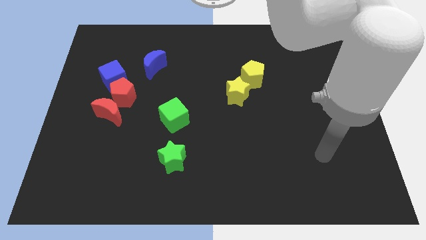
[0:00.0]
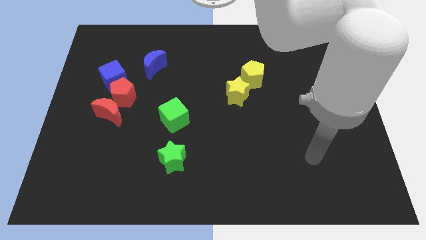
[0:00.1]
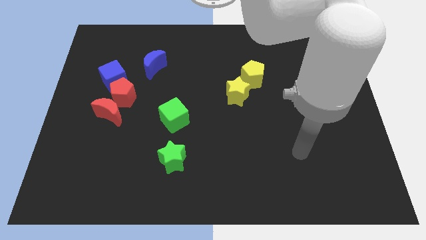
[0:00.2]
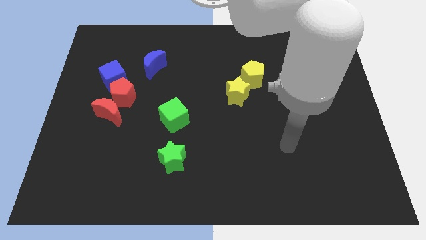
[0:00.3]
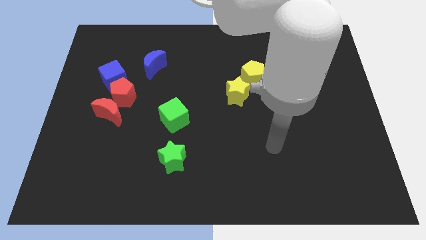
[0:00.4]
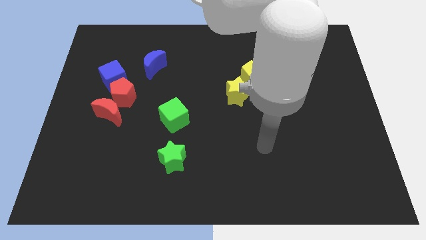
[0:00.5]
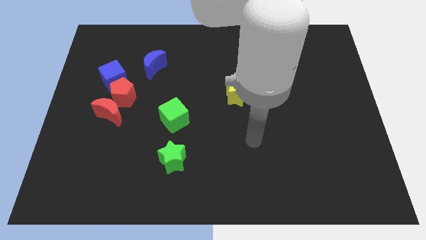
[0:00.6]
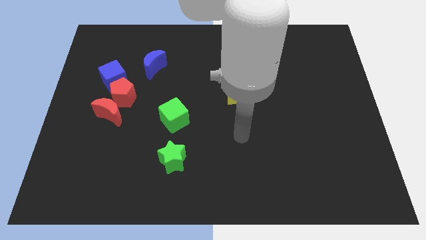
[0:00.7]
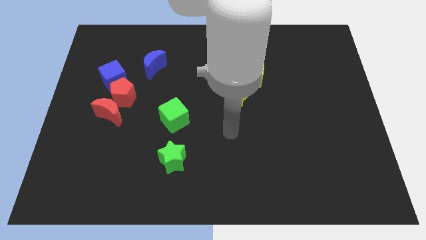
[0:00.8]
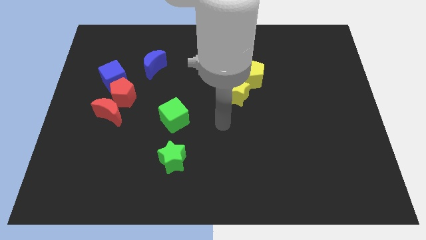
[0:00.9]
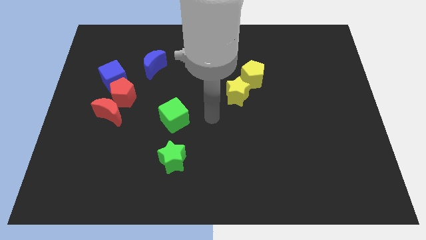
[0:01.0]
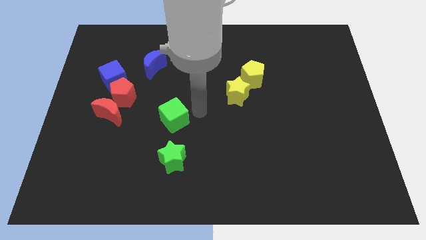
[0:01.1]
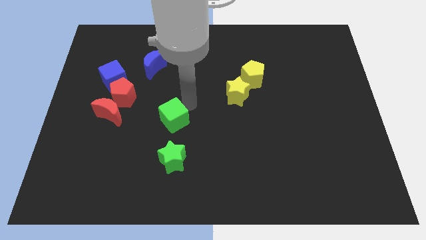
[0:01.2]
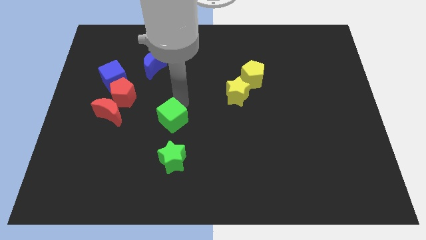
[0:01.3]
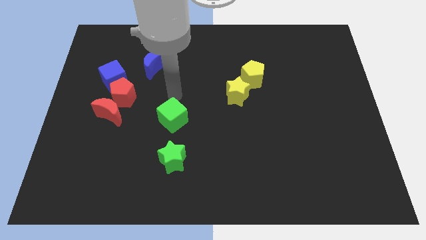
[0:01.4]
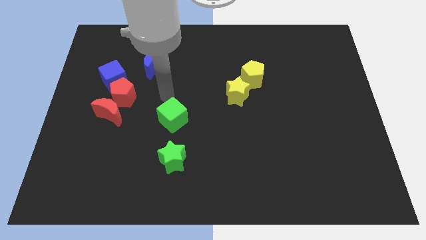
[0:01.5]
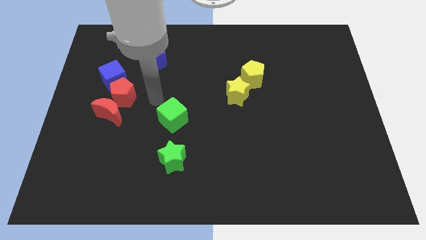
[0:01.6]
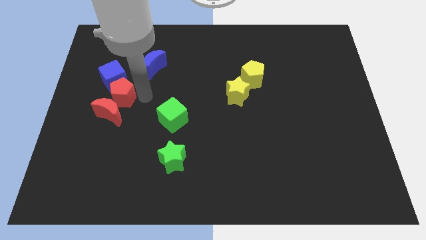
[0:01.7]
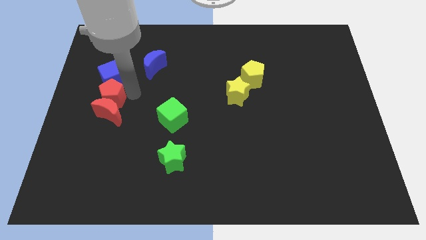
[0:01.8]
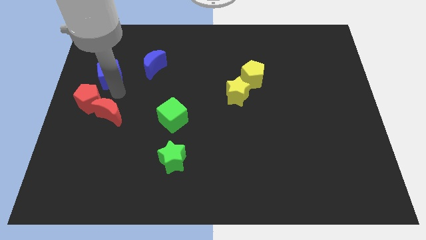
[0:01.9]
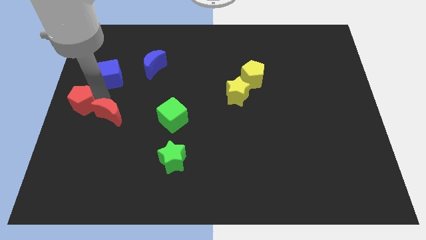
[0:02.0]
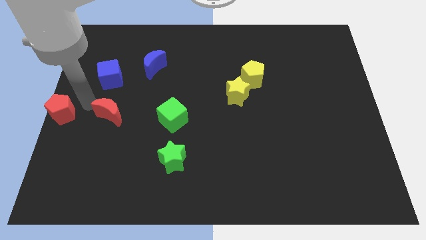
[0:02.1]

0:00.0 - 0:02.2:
pull the red moon apart from the red pentagon

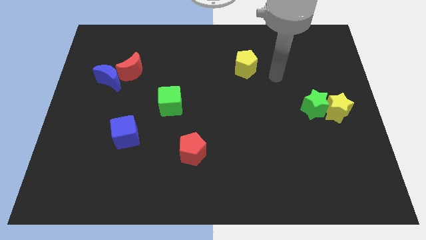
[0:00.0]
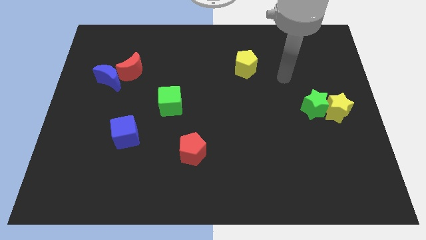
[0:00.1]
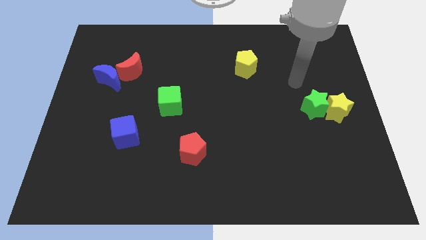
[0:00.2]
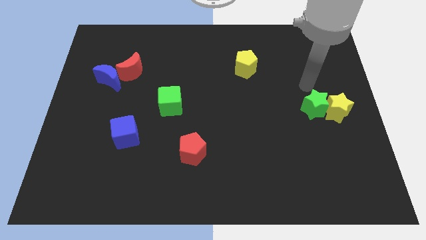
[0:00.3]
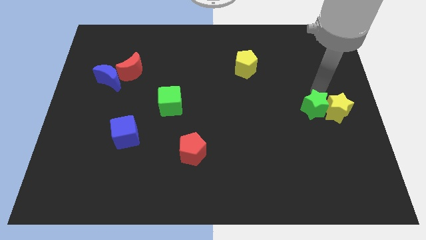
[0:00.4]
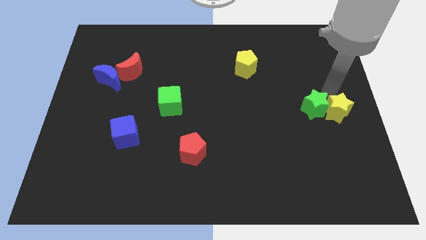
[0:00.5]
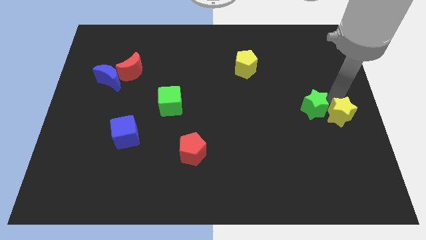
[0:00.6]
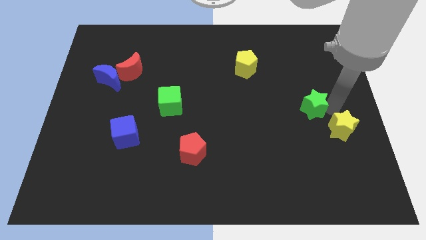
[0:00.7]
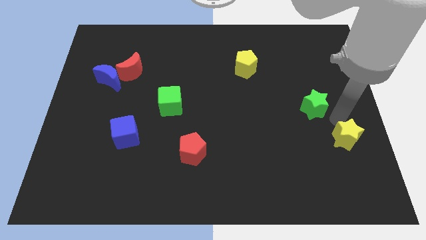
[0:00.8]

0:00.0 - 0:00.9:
separate the green star from the yellow star

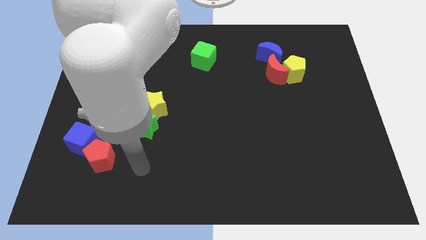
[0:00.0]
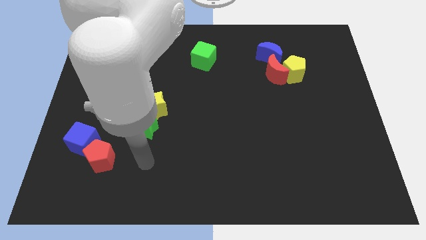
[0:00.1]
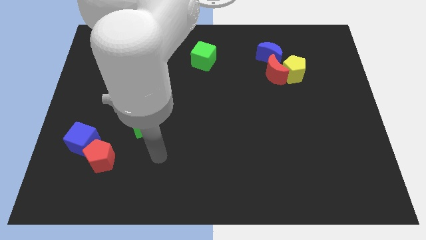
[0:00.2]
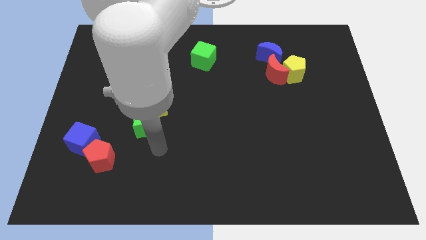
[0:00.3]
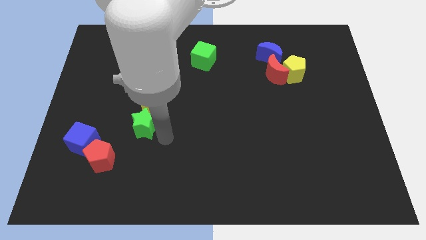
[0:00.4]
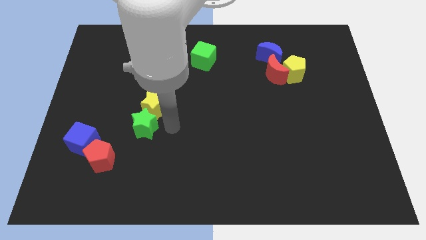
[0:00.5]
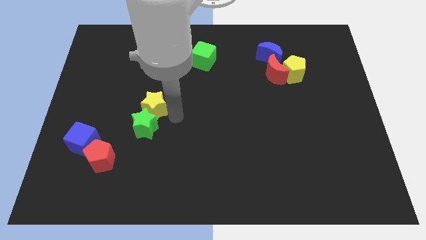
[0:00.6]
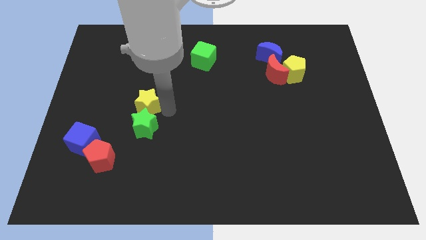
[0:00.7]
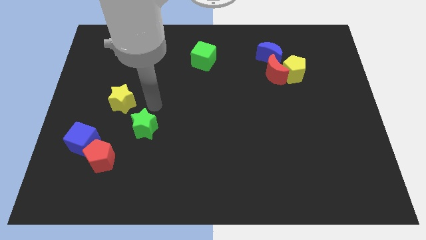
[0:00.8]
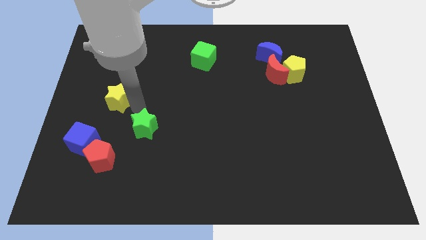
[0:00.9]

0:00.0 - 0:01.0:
pull the green star apart from the yellow star

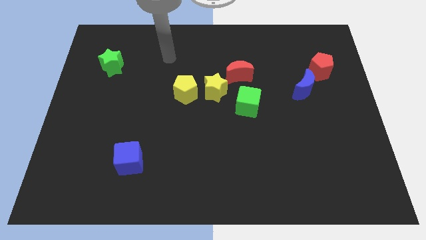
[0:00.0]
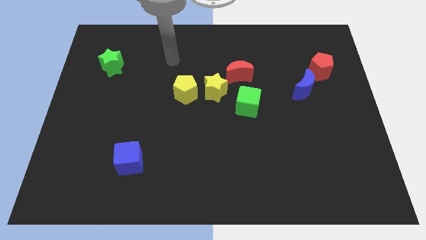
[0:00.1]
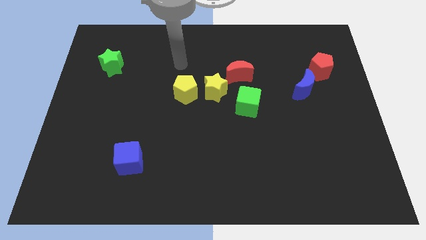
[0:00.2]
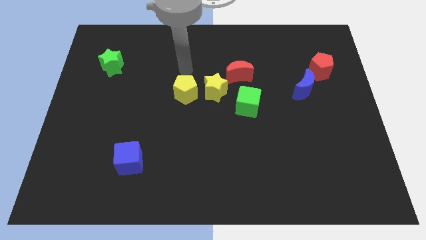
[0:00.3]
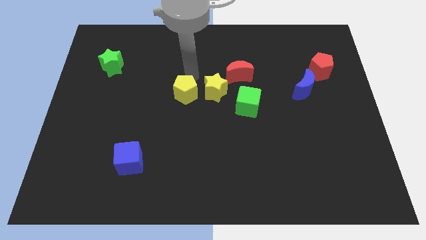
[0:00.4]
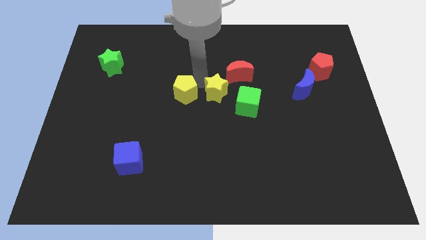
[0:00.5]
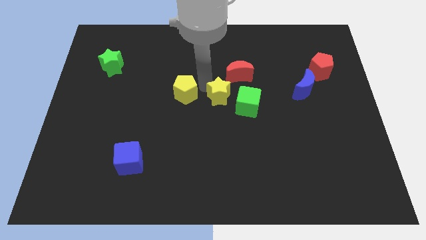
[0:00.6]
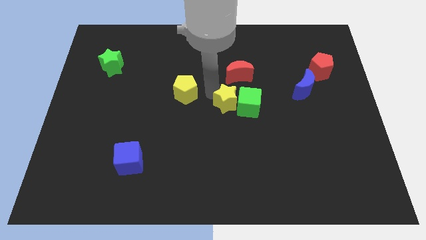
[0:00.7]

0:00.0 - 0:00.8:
pull the yellow pentagon apart from the yellow star

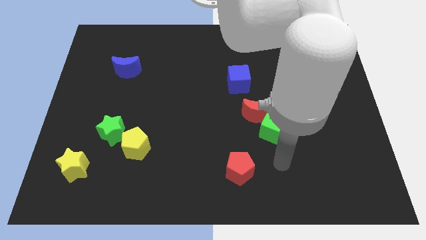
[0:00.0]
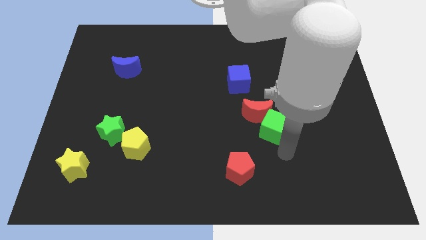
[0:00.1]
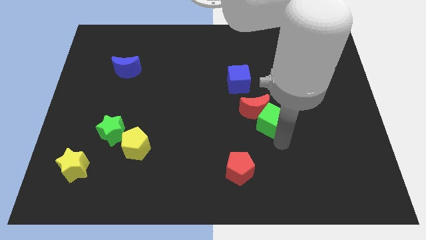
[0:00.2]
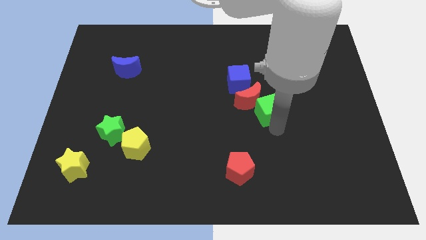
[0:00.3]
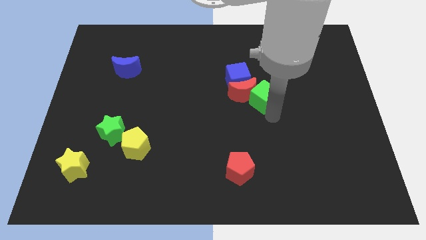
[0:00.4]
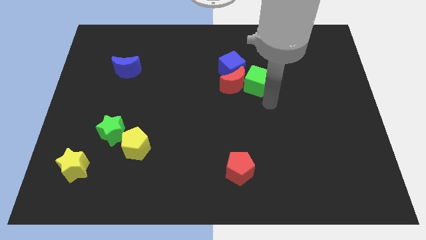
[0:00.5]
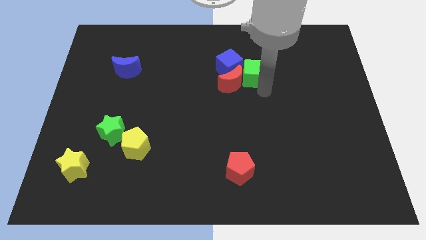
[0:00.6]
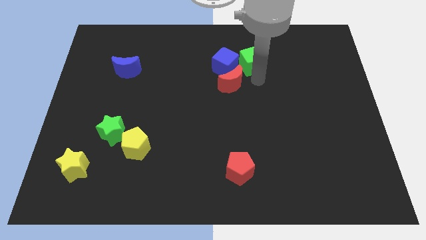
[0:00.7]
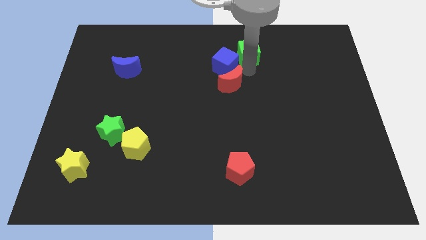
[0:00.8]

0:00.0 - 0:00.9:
pull the red moon apart from the green cube

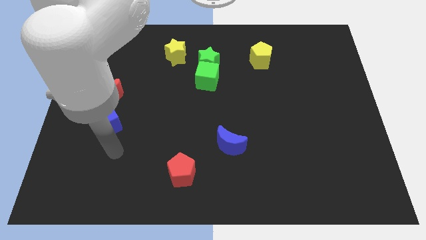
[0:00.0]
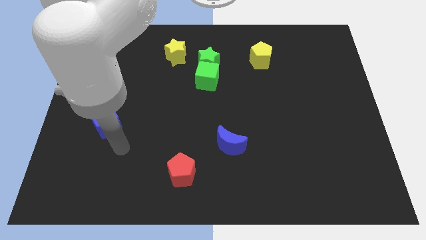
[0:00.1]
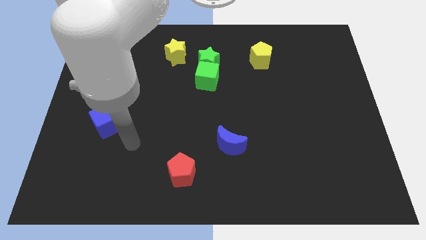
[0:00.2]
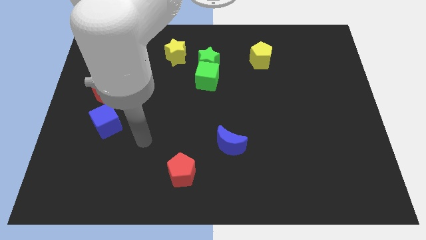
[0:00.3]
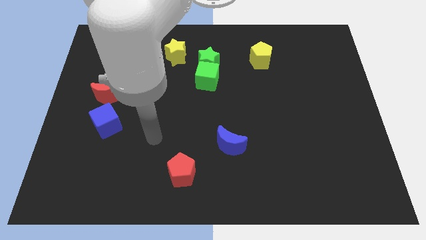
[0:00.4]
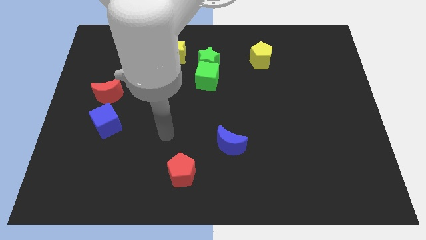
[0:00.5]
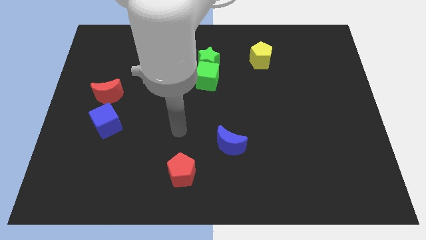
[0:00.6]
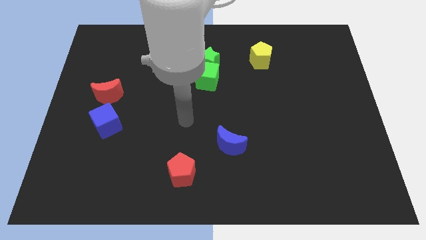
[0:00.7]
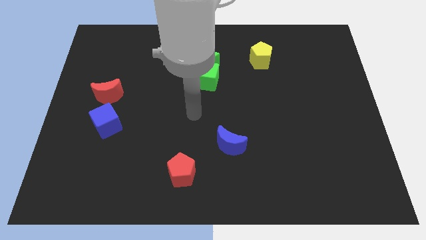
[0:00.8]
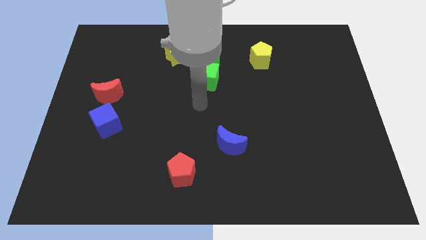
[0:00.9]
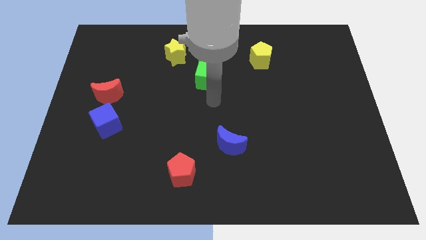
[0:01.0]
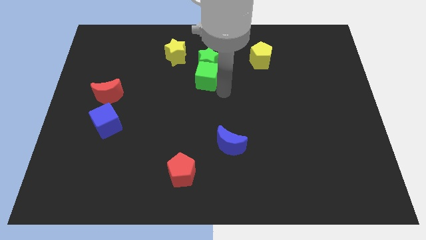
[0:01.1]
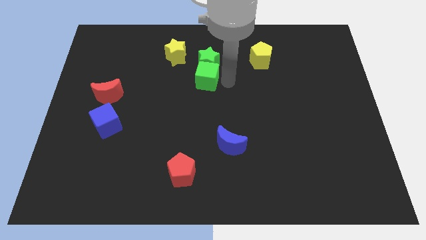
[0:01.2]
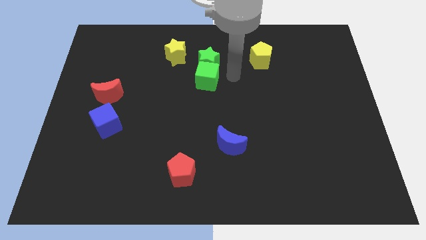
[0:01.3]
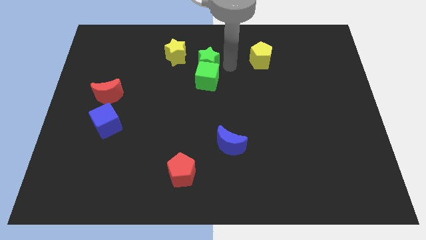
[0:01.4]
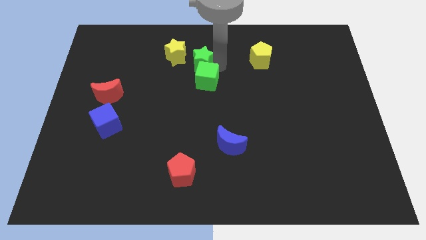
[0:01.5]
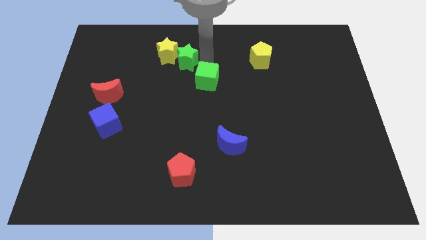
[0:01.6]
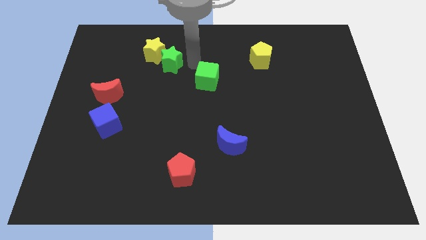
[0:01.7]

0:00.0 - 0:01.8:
pull the green cube apart from the green star

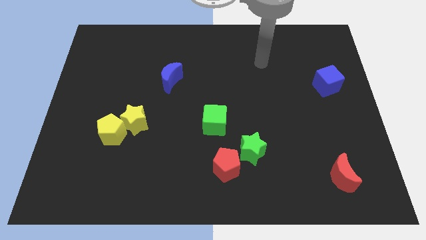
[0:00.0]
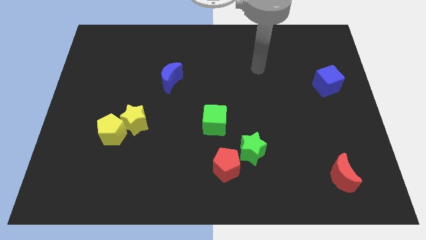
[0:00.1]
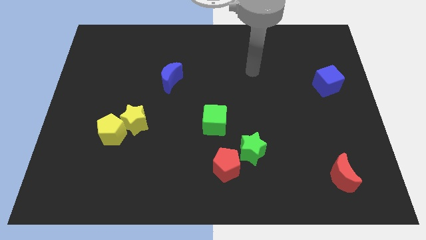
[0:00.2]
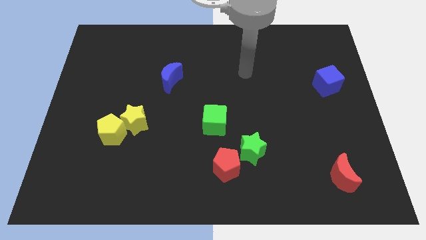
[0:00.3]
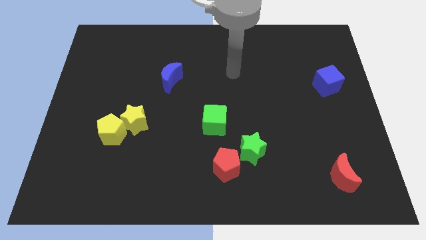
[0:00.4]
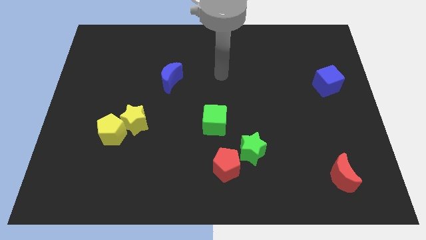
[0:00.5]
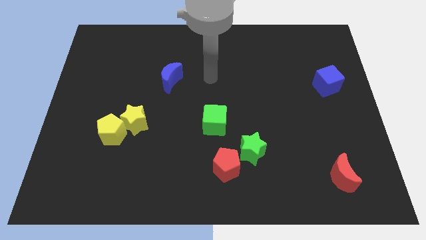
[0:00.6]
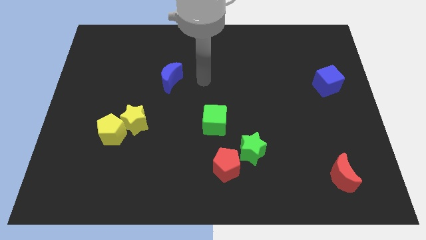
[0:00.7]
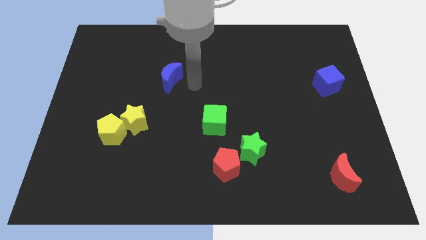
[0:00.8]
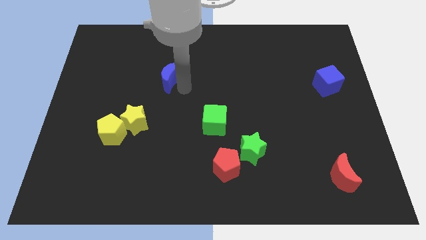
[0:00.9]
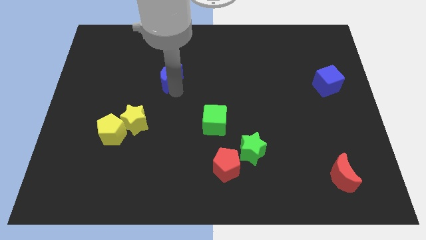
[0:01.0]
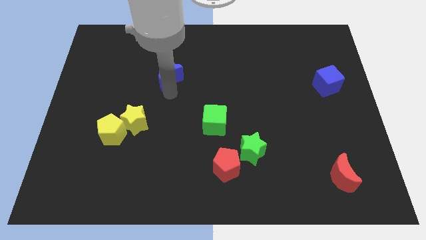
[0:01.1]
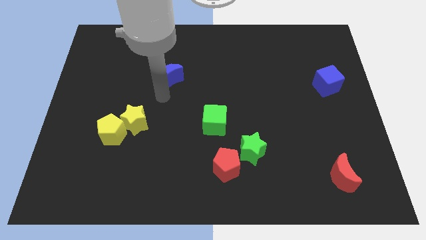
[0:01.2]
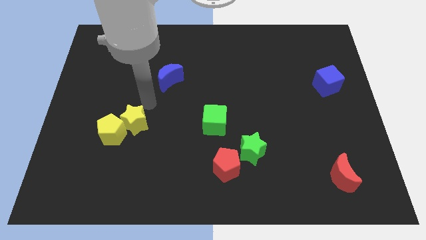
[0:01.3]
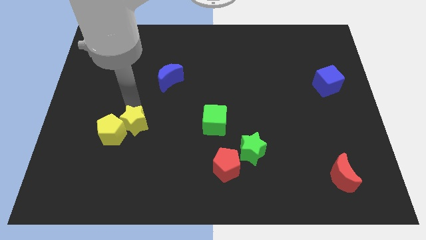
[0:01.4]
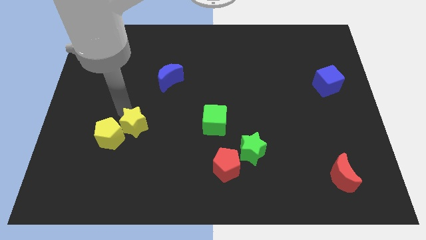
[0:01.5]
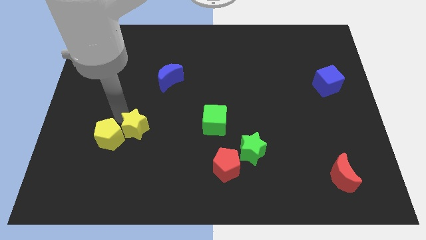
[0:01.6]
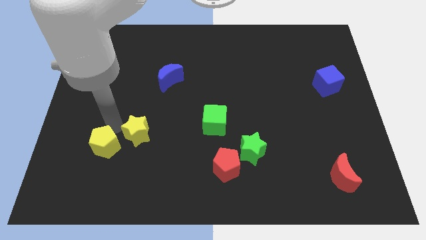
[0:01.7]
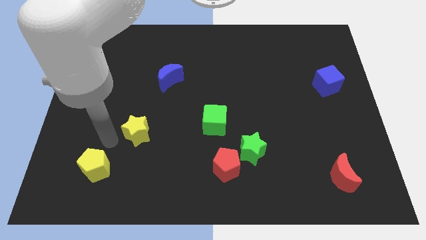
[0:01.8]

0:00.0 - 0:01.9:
move the yellow star away from the yellow pentagon

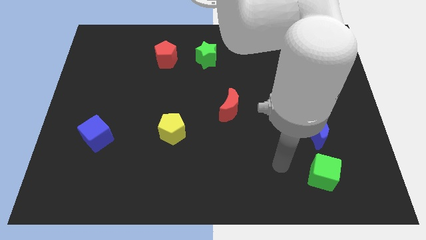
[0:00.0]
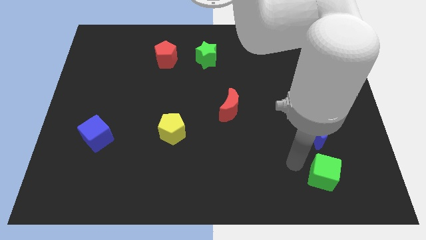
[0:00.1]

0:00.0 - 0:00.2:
pull the blue moon apart from the green cube
